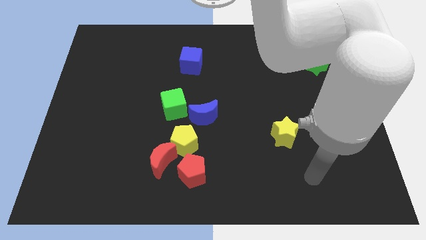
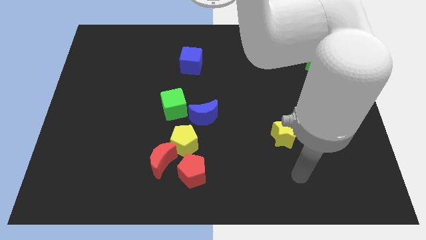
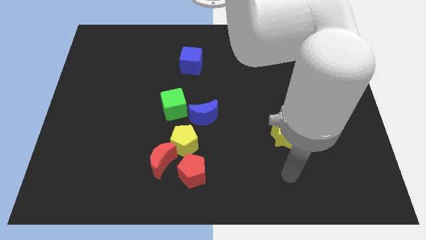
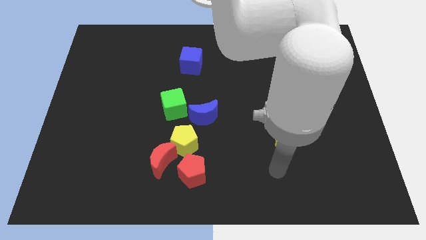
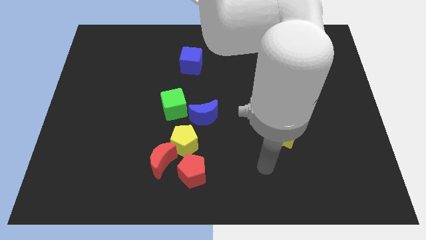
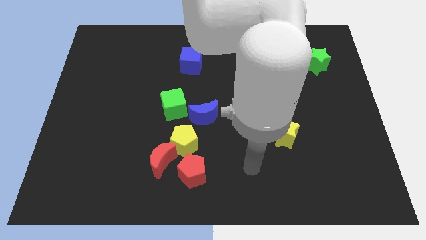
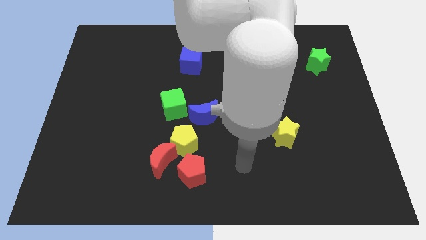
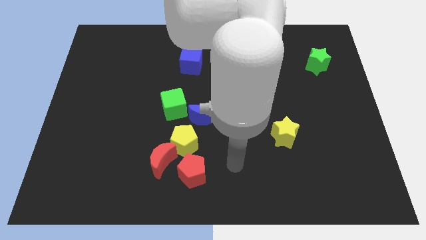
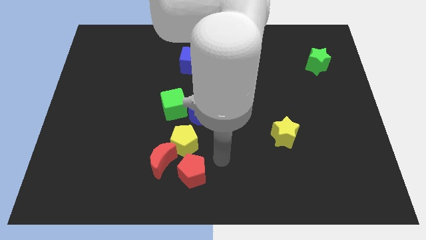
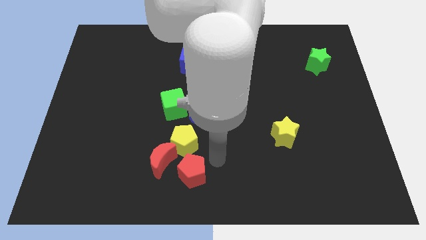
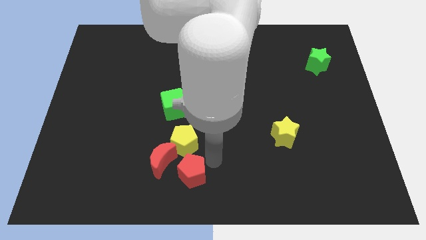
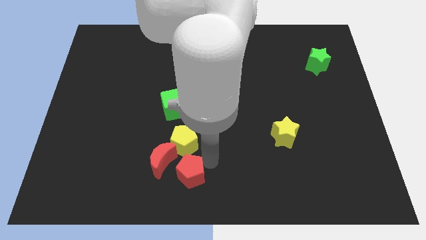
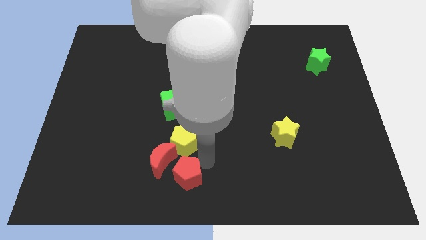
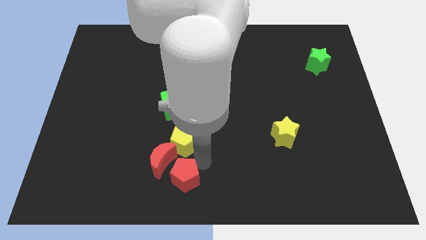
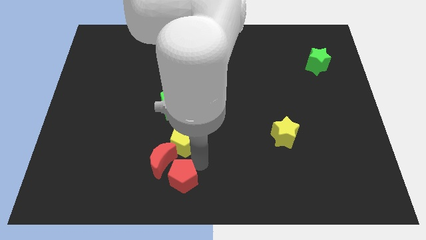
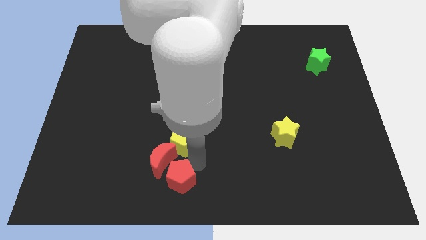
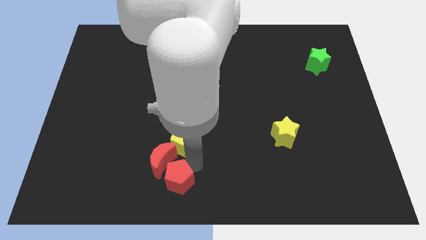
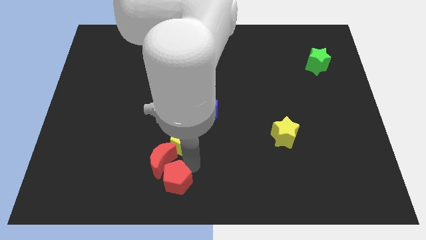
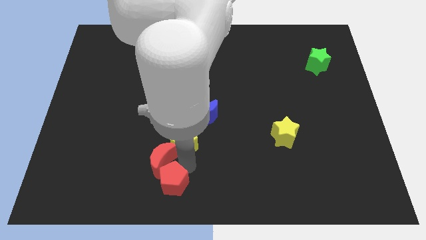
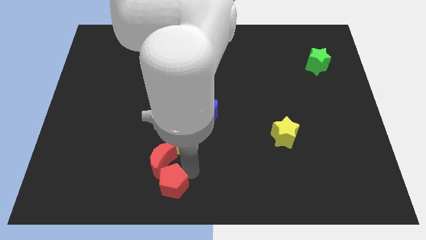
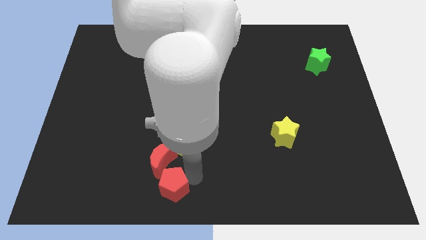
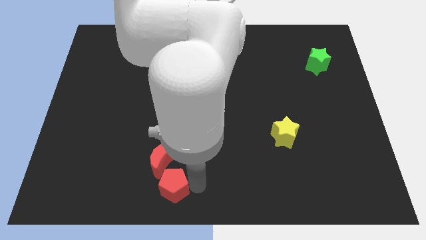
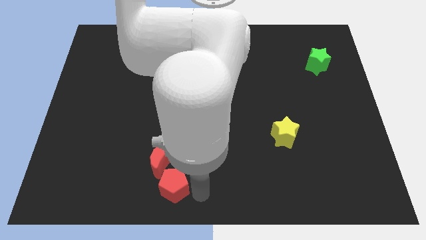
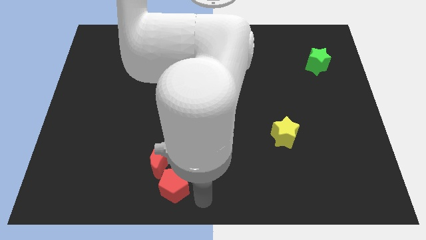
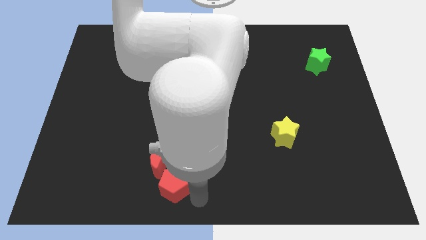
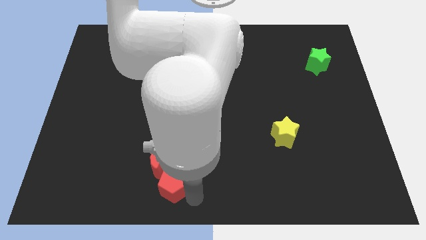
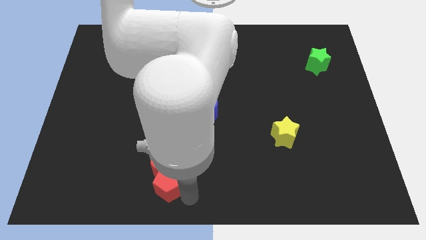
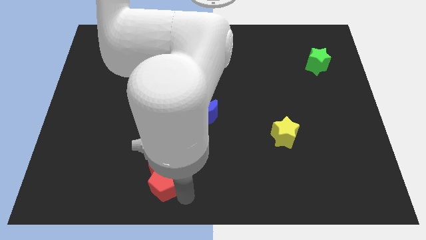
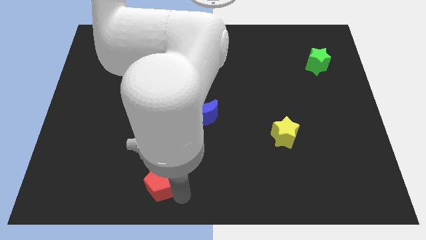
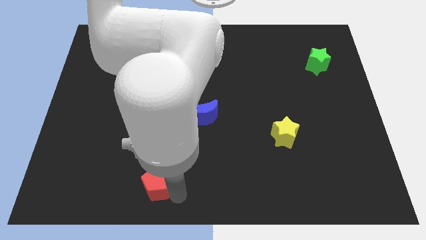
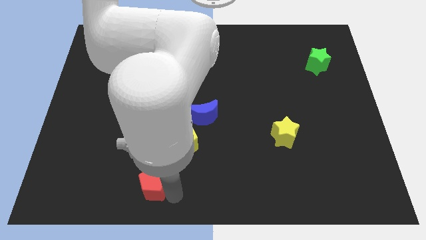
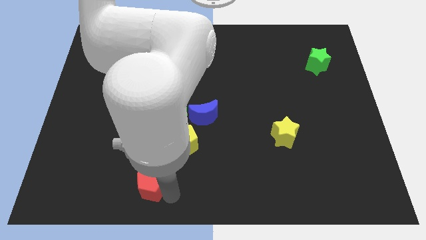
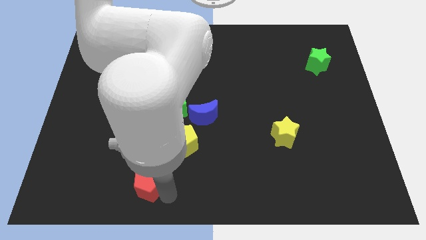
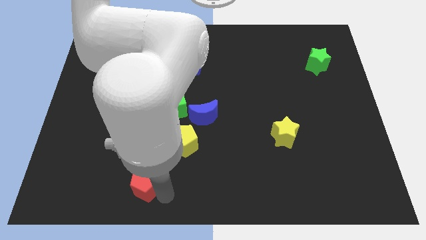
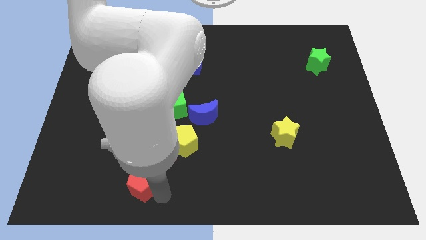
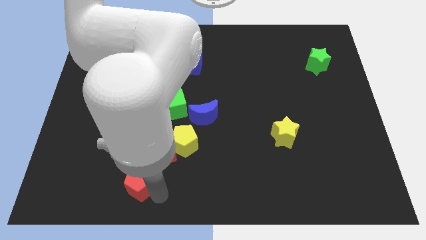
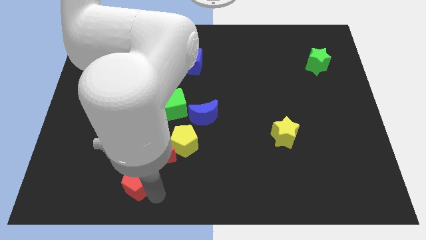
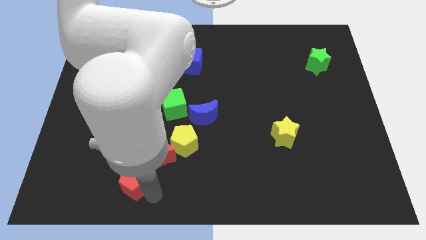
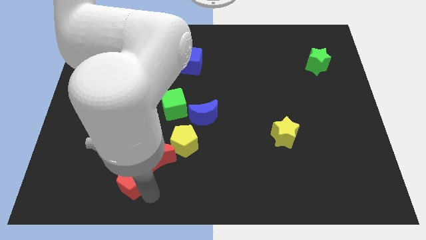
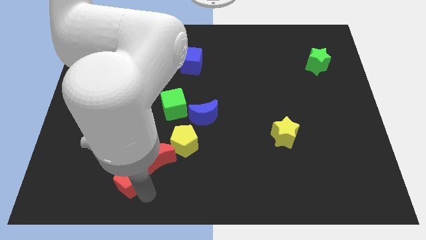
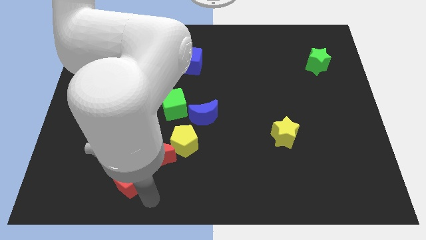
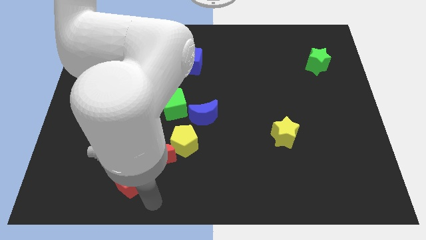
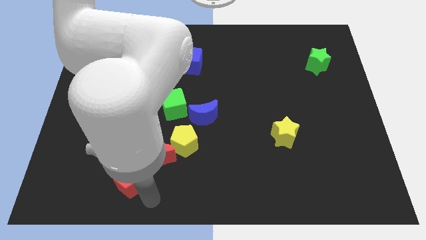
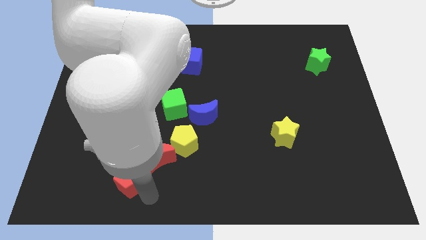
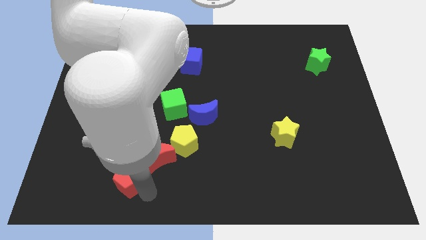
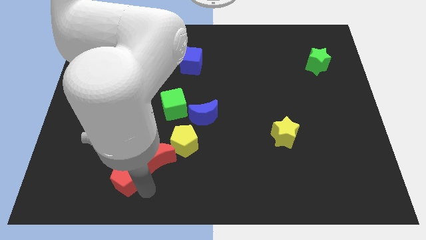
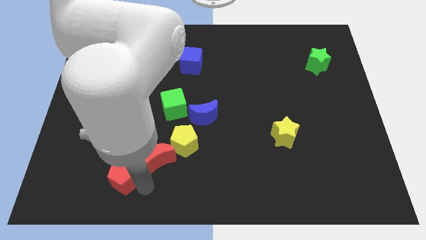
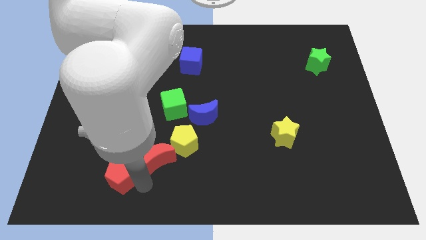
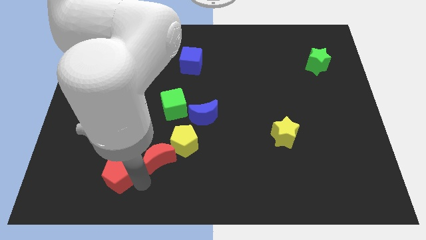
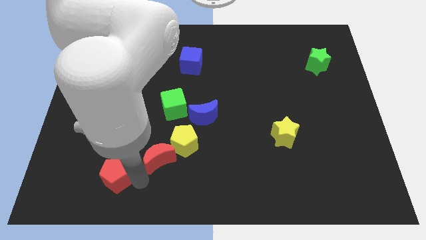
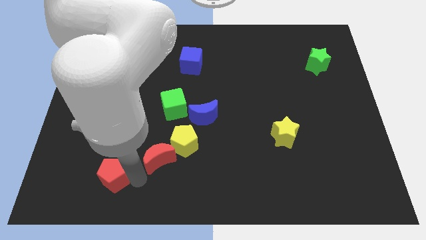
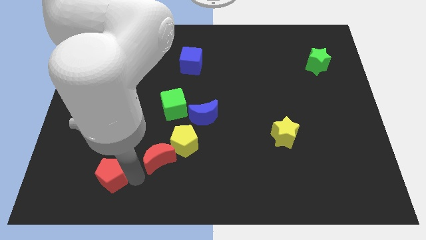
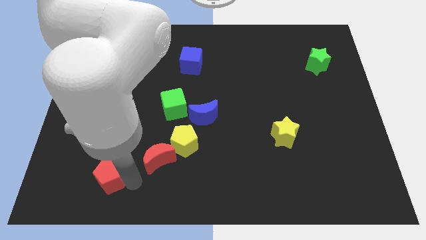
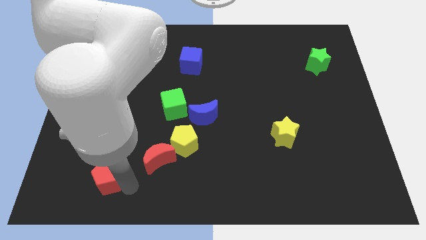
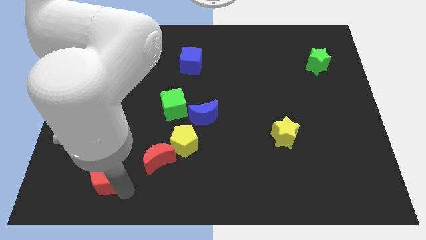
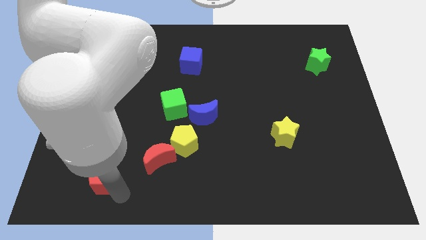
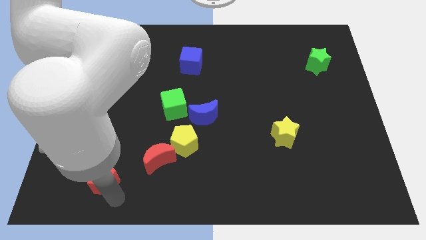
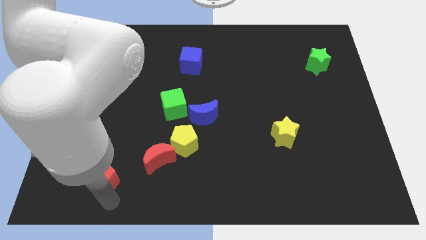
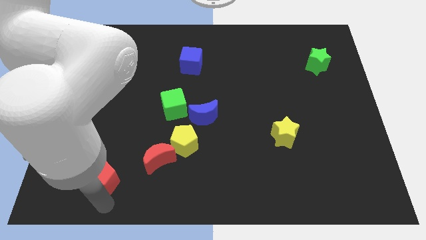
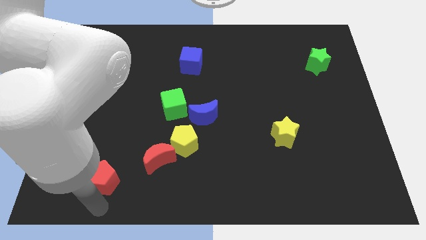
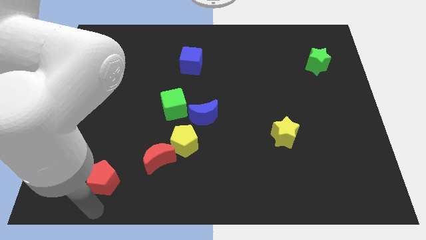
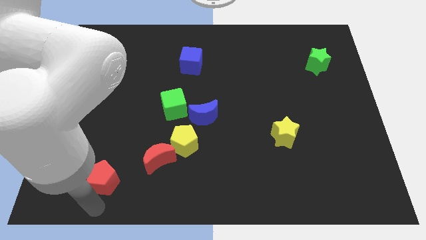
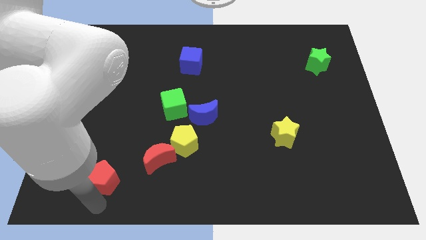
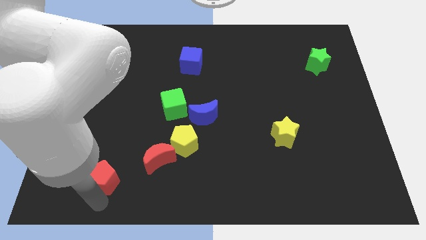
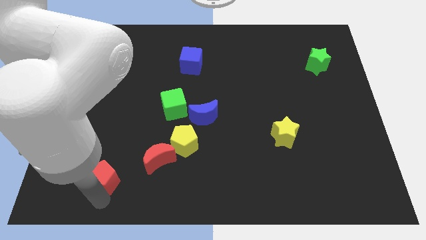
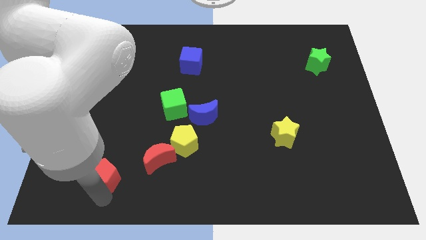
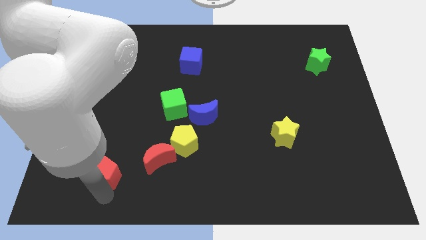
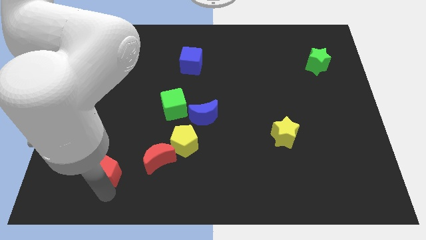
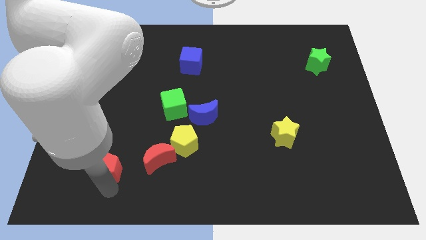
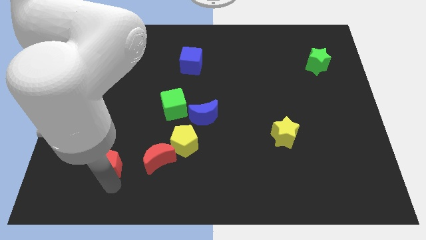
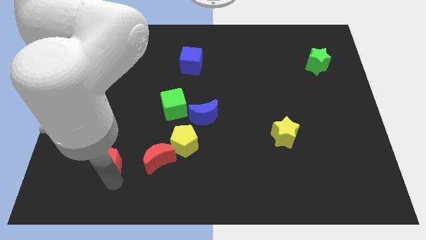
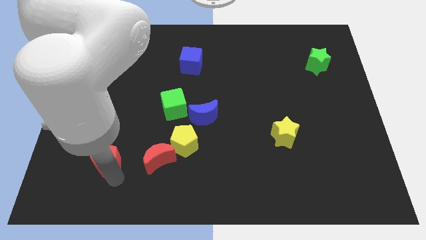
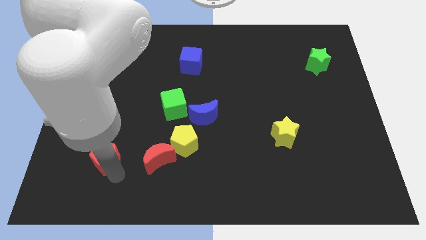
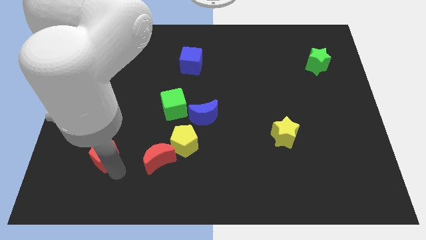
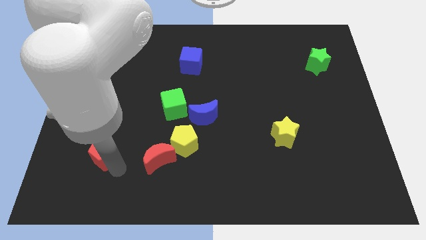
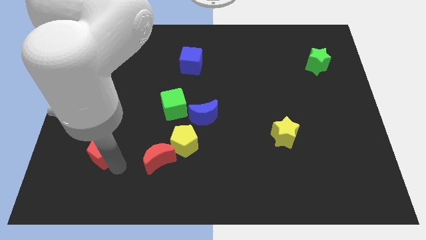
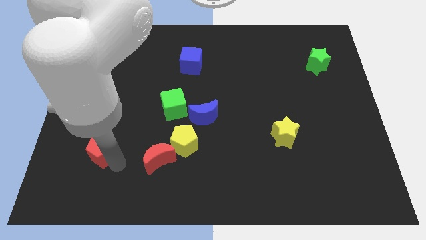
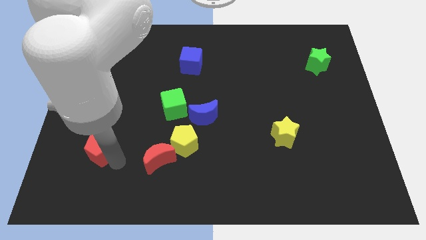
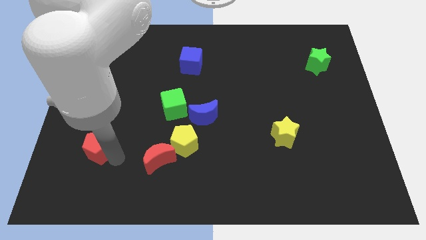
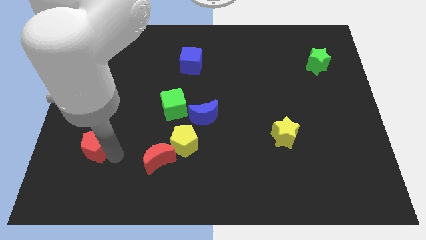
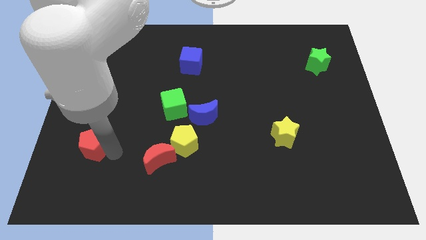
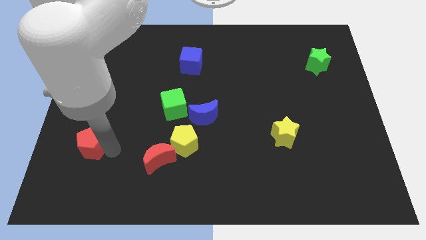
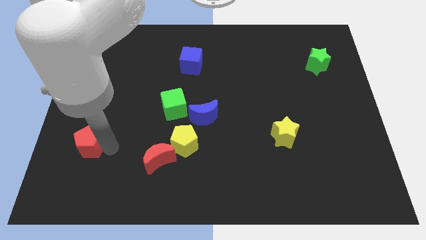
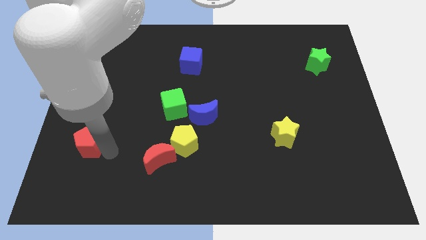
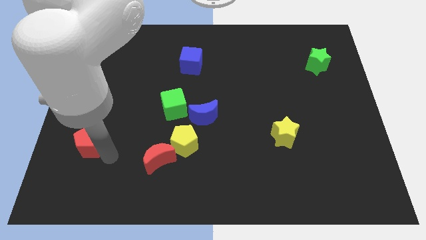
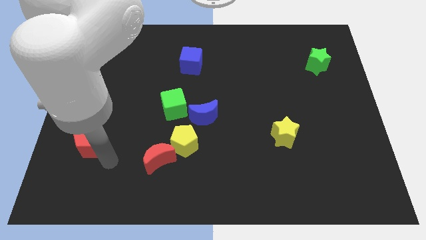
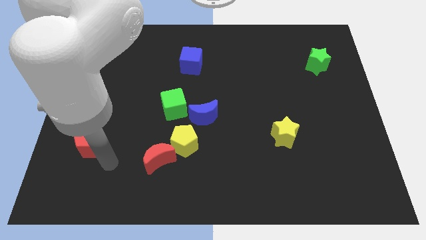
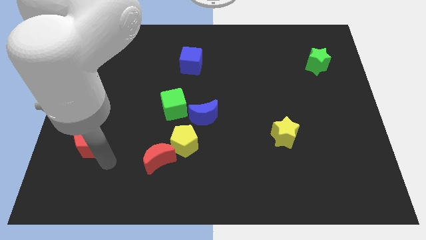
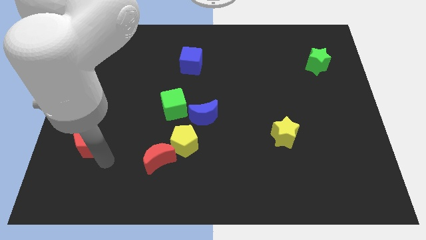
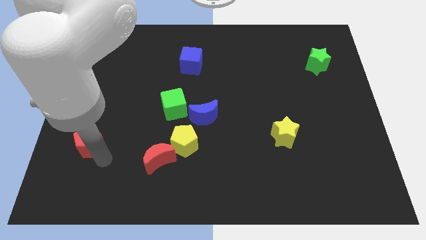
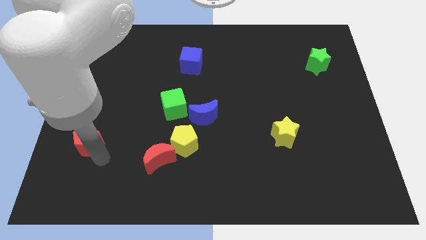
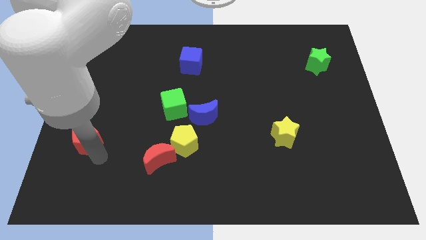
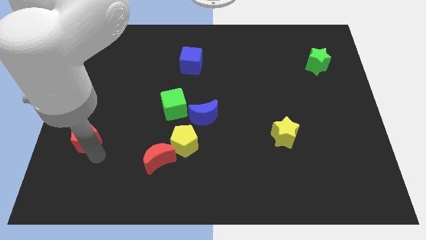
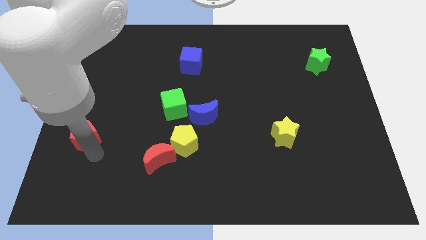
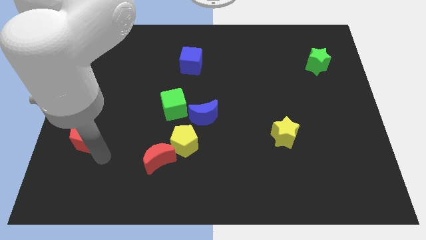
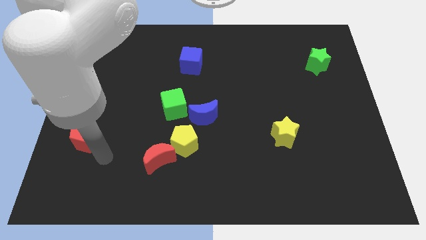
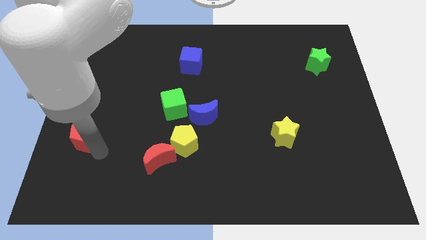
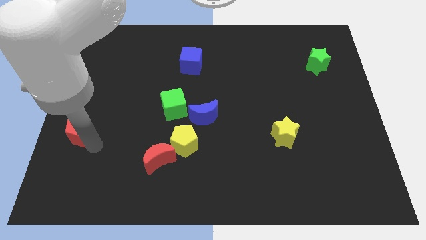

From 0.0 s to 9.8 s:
put the red pentagon to the left side of the board
